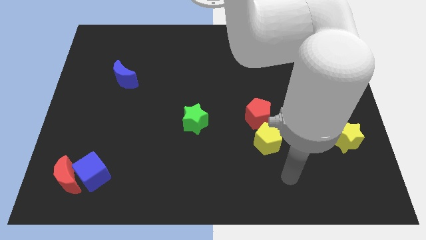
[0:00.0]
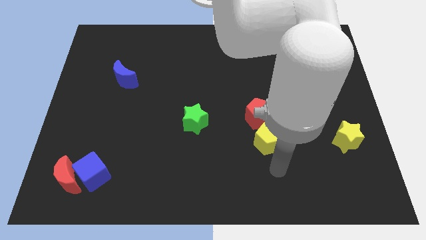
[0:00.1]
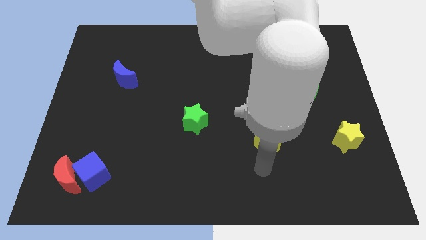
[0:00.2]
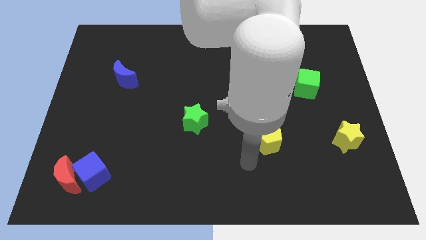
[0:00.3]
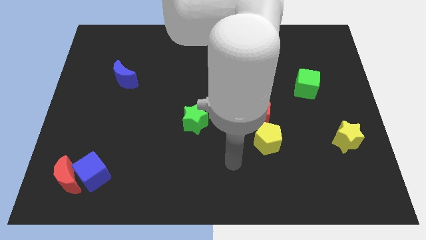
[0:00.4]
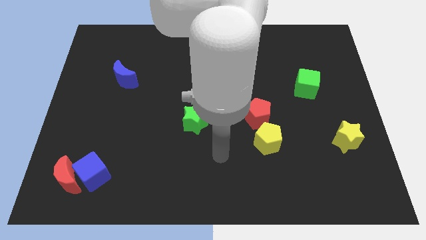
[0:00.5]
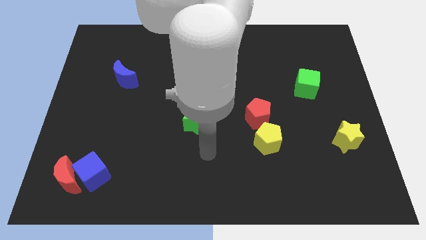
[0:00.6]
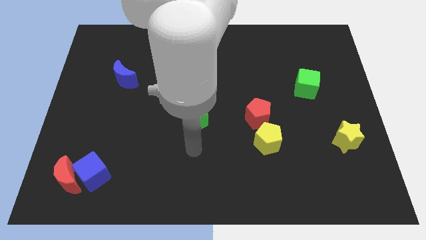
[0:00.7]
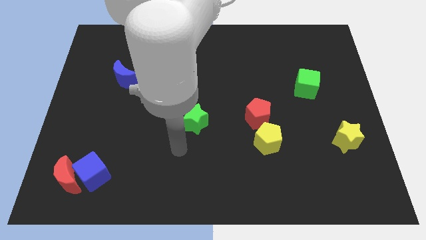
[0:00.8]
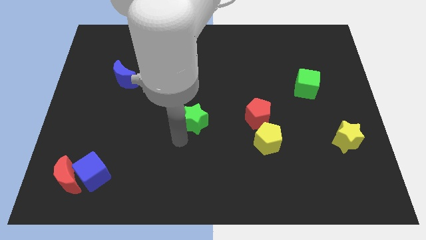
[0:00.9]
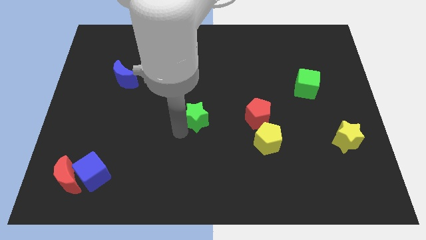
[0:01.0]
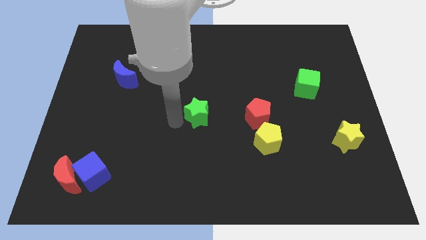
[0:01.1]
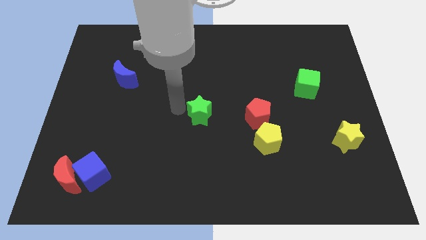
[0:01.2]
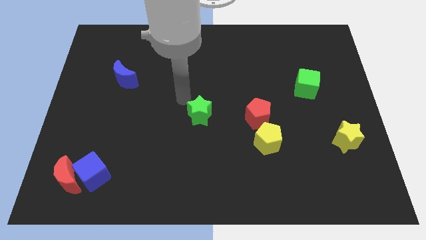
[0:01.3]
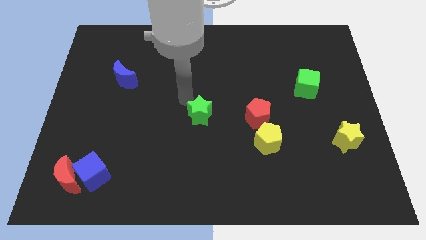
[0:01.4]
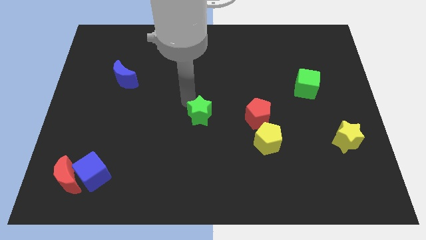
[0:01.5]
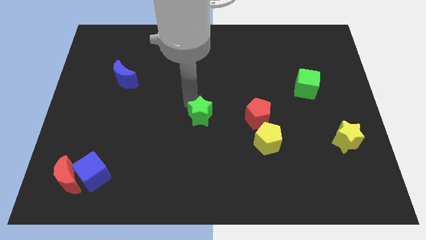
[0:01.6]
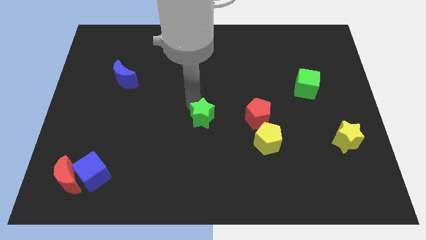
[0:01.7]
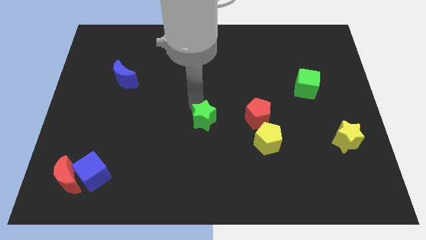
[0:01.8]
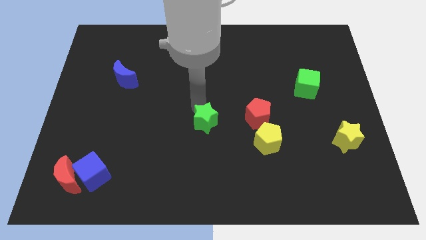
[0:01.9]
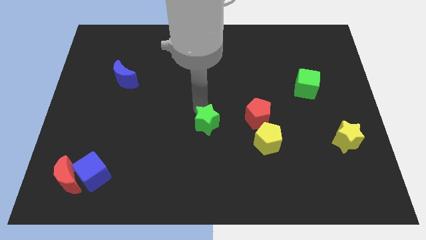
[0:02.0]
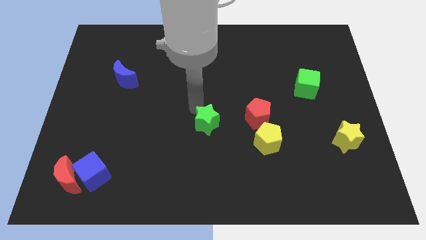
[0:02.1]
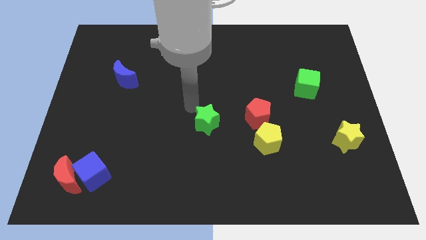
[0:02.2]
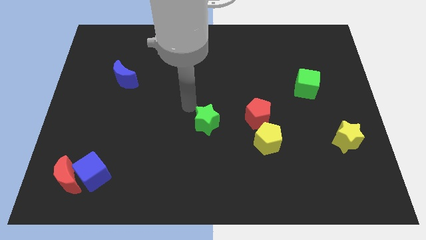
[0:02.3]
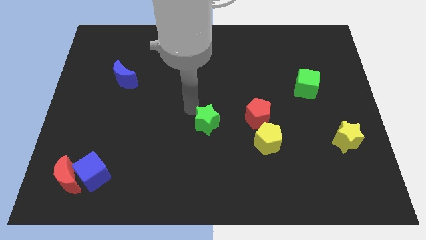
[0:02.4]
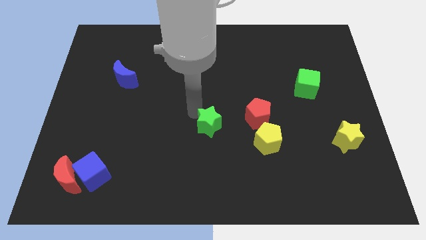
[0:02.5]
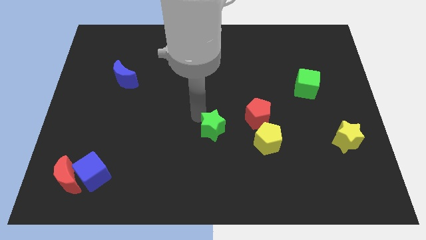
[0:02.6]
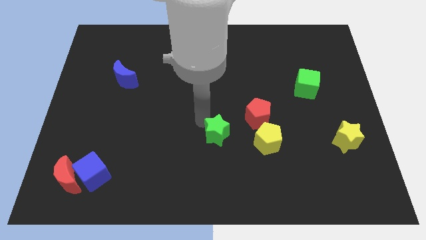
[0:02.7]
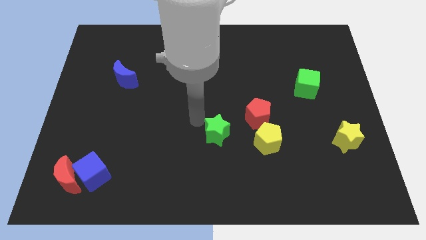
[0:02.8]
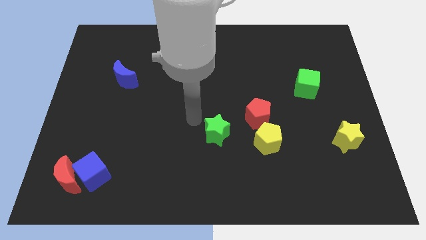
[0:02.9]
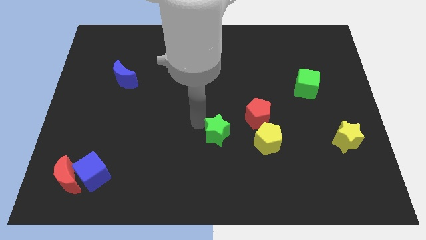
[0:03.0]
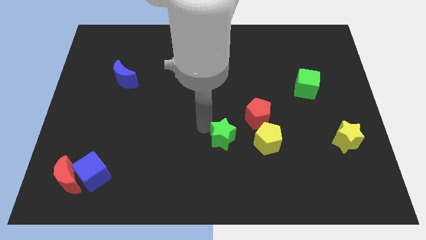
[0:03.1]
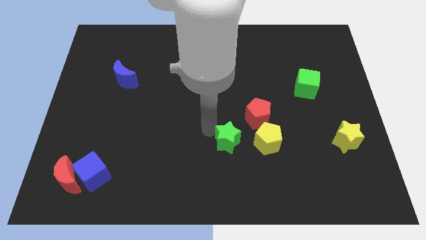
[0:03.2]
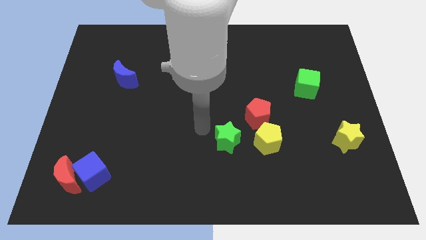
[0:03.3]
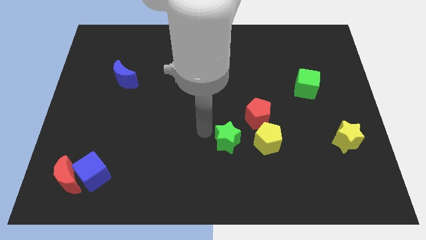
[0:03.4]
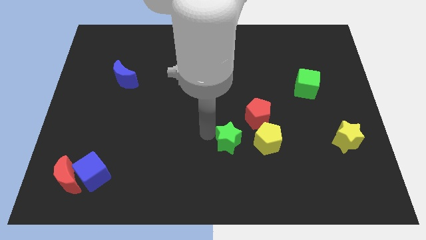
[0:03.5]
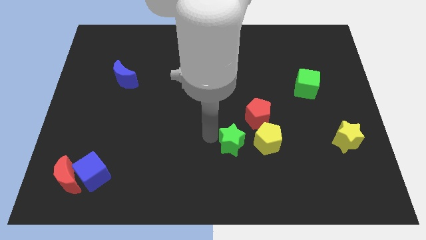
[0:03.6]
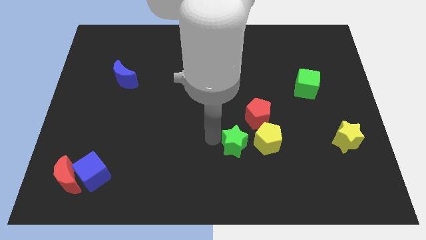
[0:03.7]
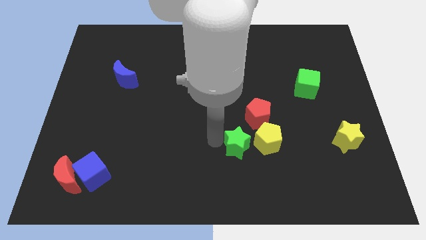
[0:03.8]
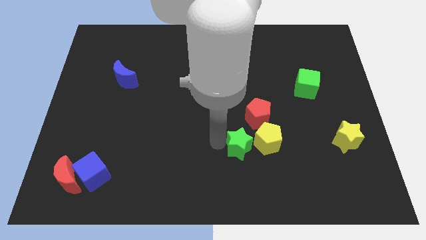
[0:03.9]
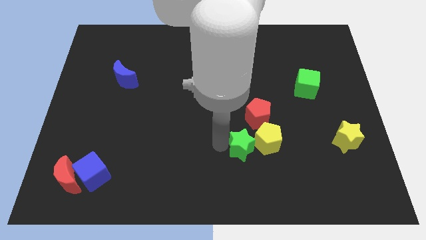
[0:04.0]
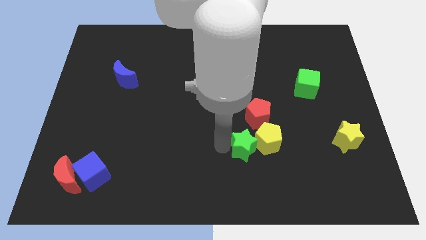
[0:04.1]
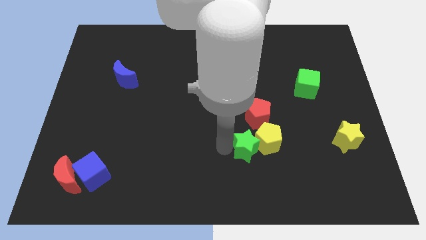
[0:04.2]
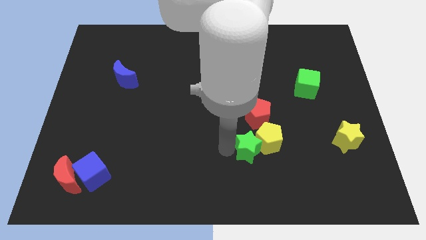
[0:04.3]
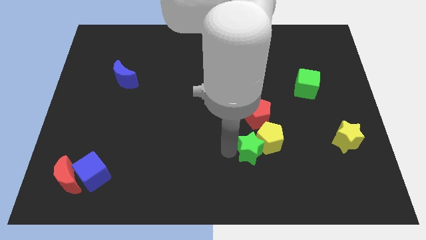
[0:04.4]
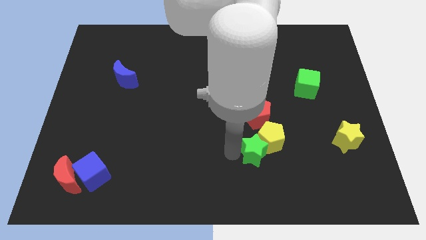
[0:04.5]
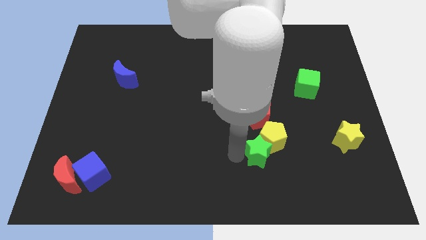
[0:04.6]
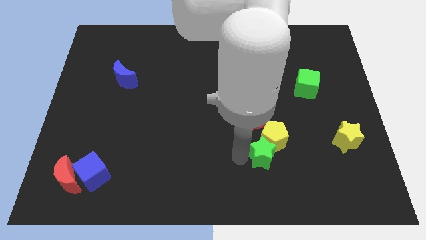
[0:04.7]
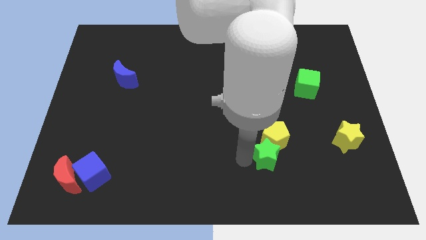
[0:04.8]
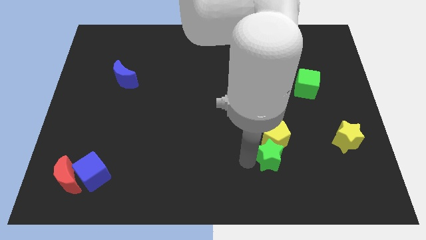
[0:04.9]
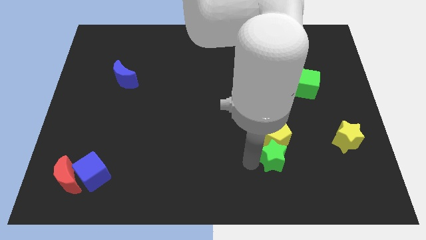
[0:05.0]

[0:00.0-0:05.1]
push the green star to the bottom right side of the yellow pentagon

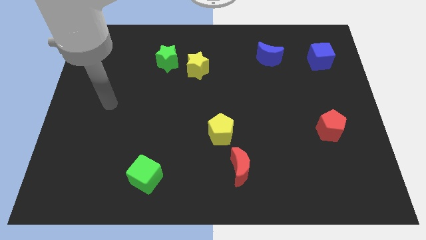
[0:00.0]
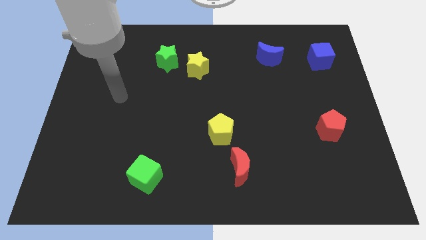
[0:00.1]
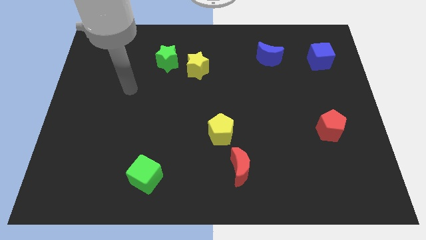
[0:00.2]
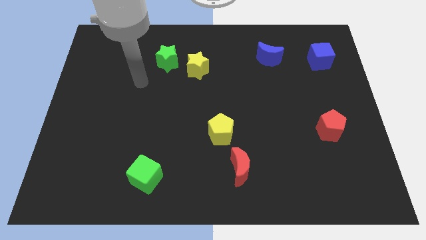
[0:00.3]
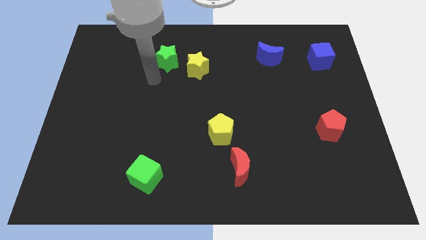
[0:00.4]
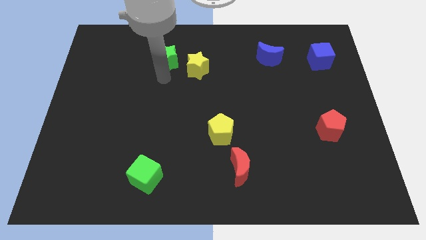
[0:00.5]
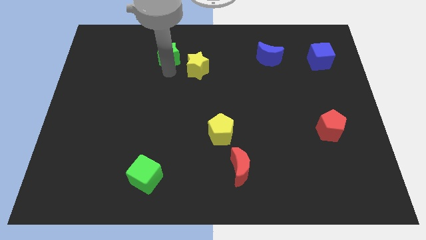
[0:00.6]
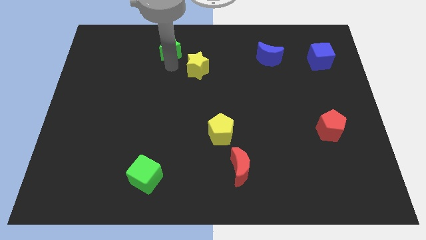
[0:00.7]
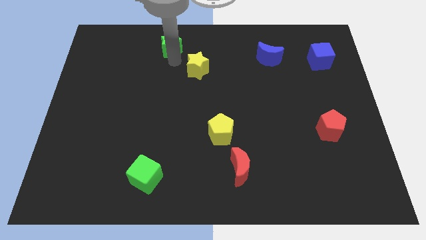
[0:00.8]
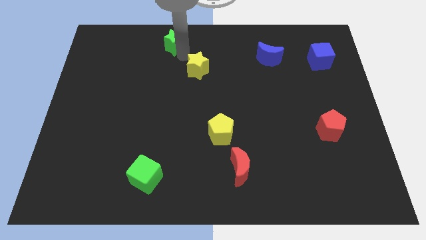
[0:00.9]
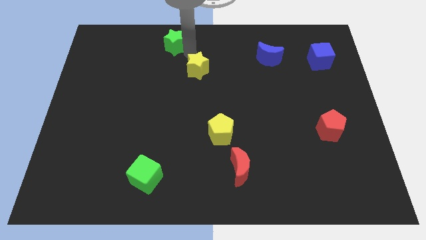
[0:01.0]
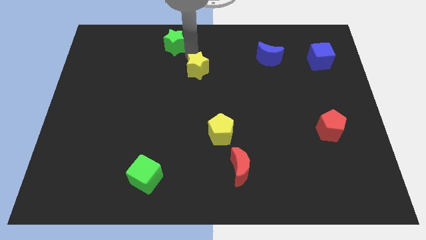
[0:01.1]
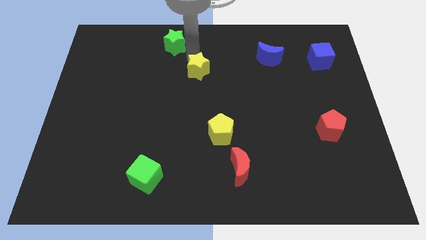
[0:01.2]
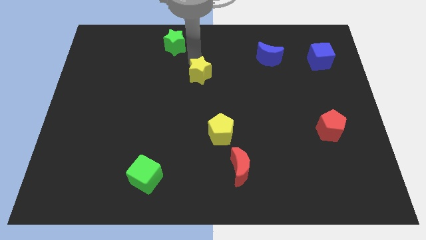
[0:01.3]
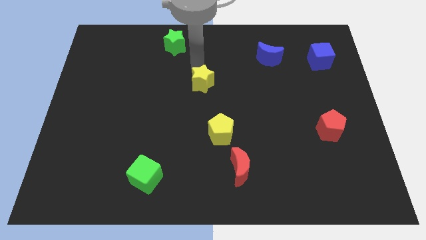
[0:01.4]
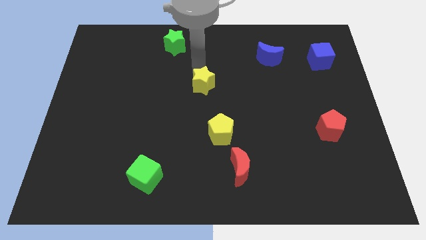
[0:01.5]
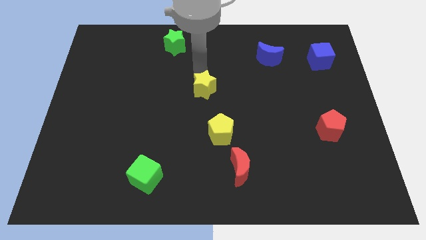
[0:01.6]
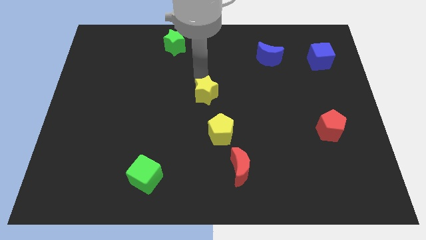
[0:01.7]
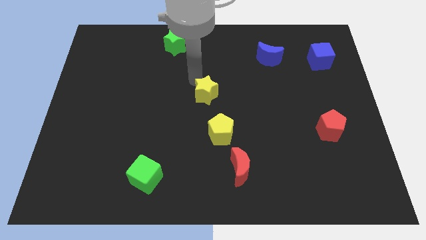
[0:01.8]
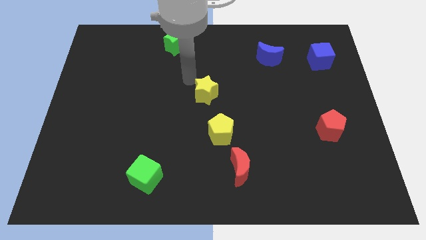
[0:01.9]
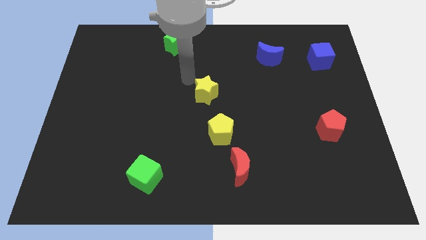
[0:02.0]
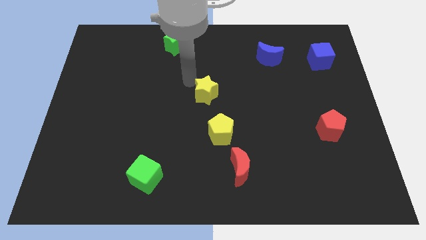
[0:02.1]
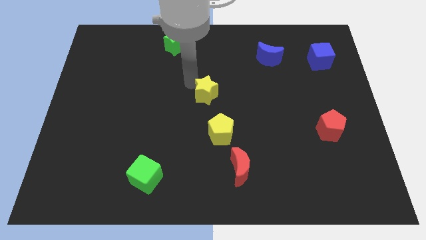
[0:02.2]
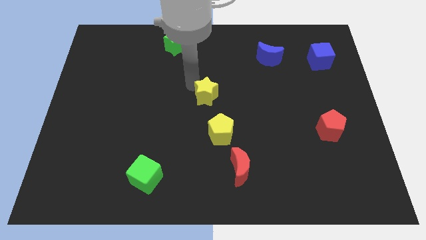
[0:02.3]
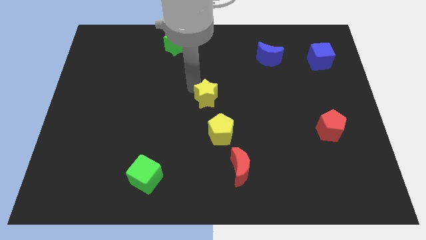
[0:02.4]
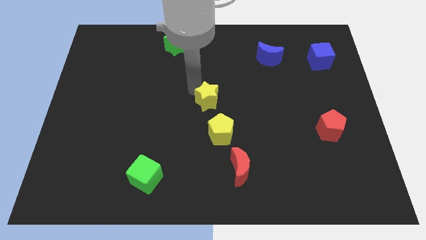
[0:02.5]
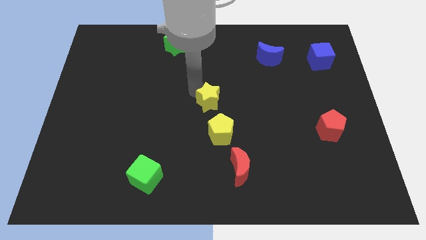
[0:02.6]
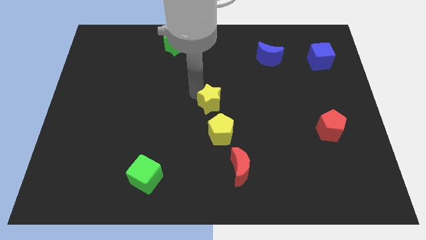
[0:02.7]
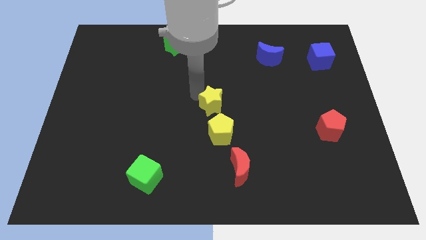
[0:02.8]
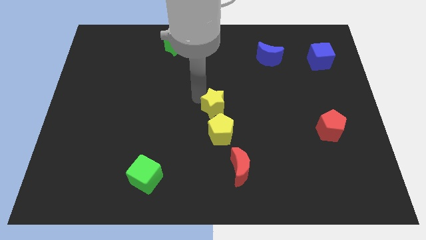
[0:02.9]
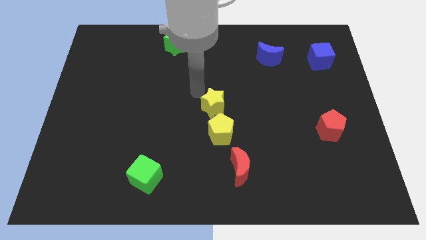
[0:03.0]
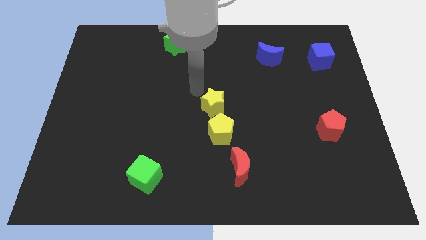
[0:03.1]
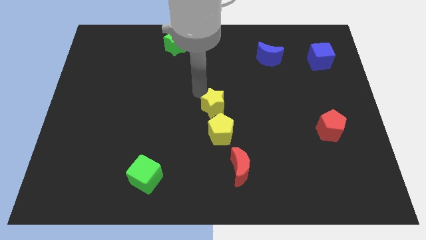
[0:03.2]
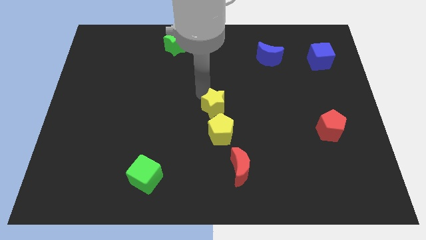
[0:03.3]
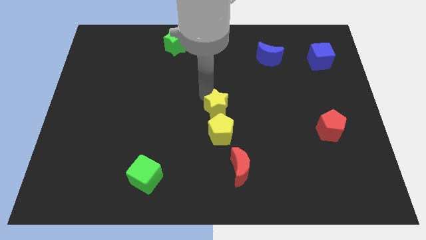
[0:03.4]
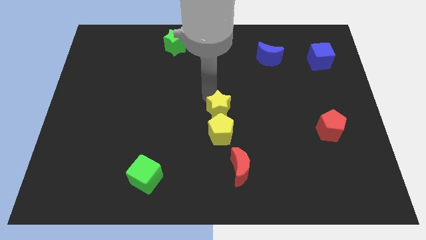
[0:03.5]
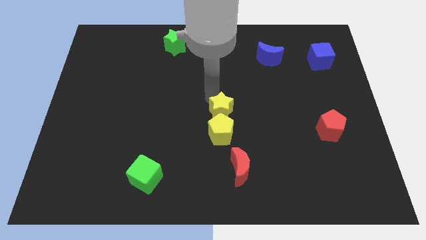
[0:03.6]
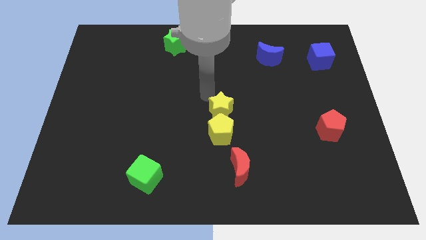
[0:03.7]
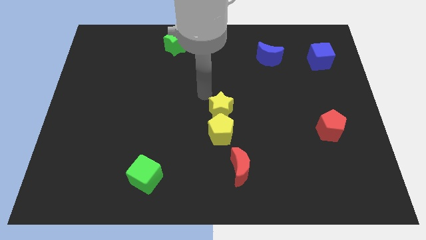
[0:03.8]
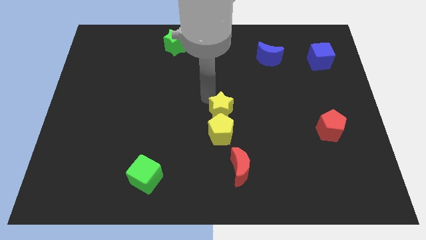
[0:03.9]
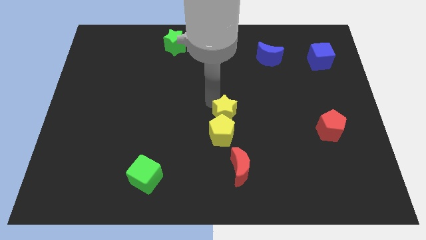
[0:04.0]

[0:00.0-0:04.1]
move the yellow star above the red moon
